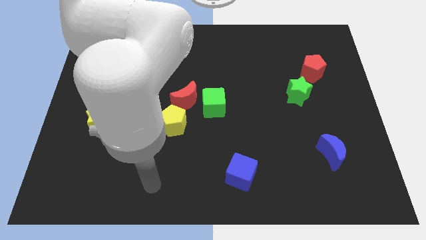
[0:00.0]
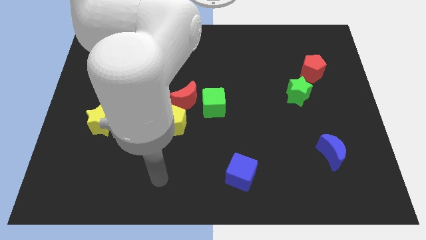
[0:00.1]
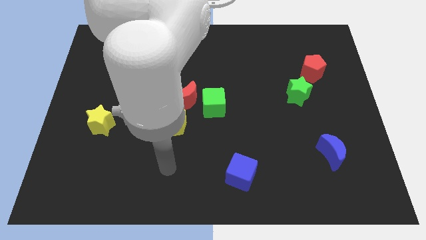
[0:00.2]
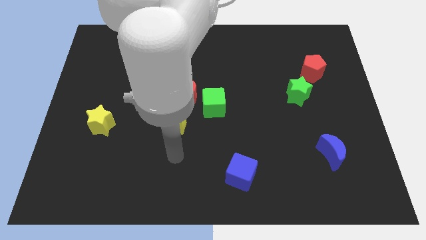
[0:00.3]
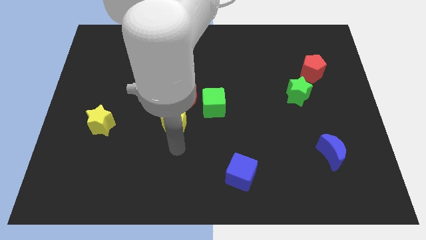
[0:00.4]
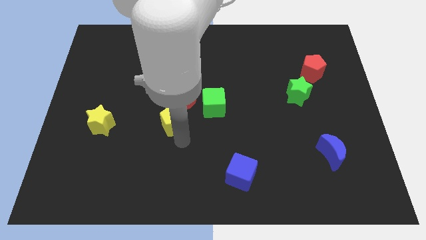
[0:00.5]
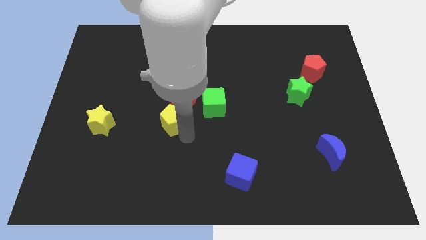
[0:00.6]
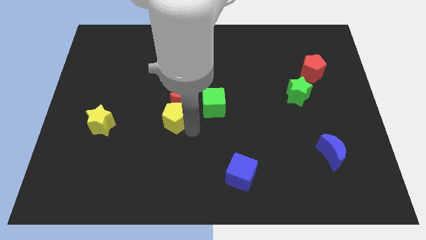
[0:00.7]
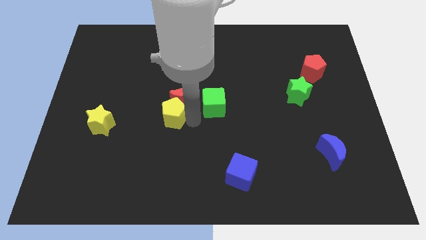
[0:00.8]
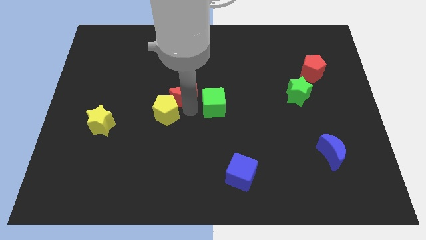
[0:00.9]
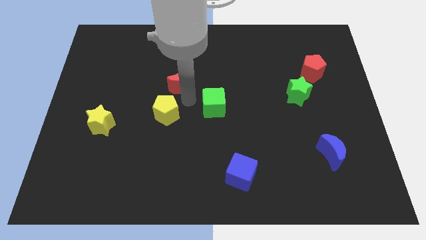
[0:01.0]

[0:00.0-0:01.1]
move the green cube away from the red moon

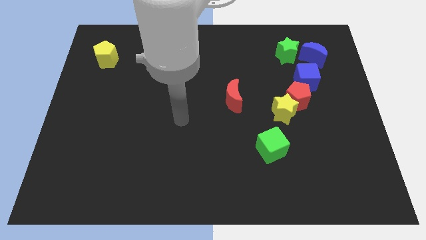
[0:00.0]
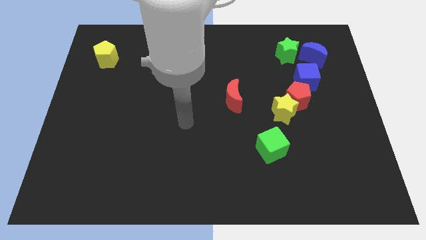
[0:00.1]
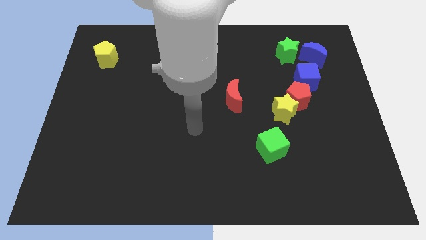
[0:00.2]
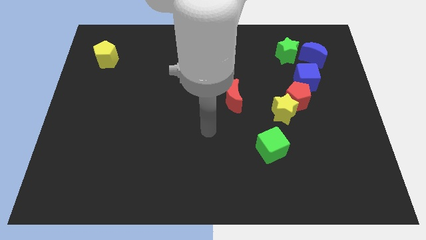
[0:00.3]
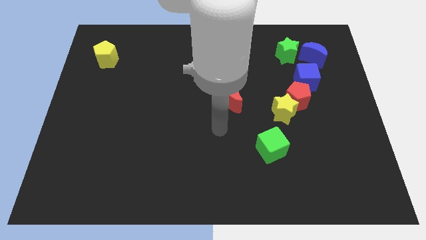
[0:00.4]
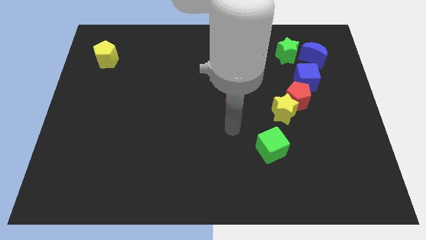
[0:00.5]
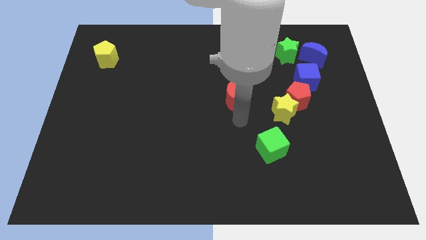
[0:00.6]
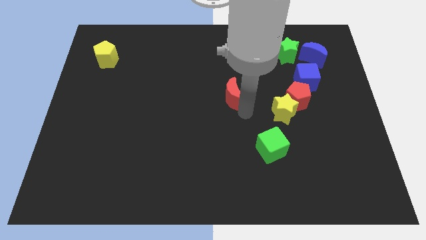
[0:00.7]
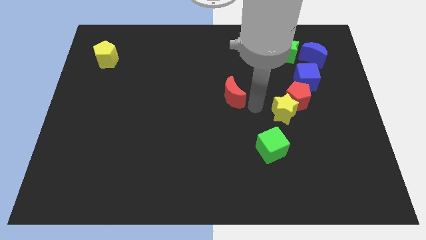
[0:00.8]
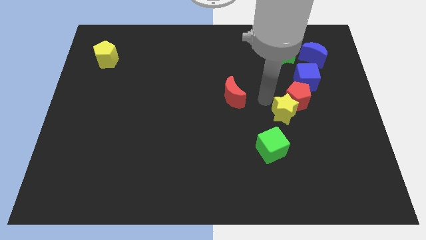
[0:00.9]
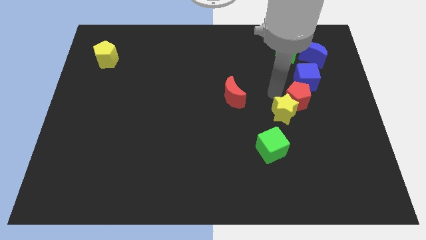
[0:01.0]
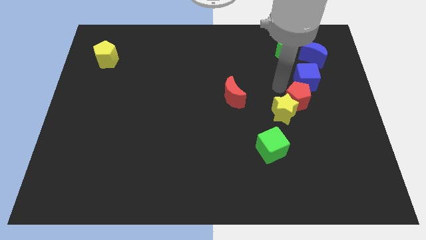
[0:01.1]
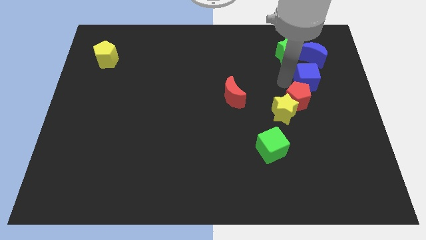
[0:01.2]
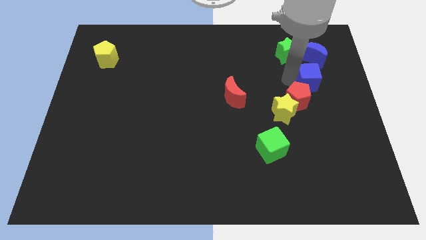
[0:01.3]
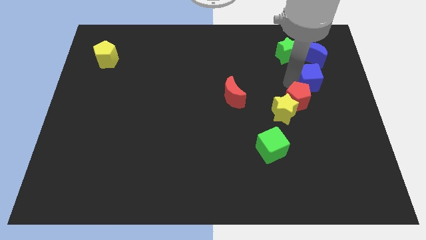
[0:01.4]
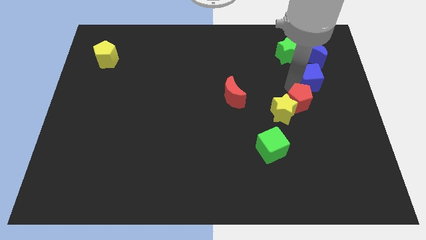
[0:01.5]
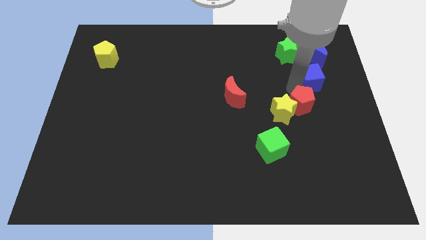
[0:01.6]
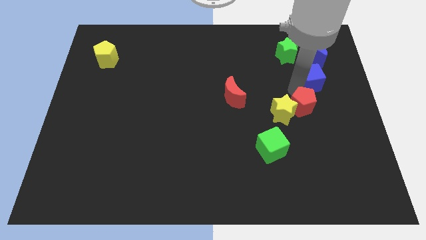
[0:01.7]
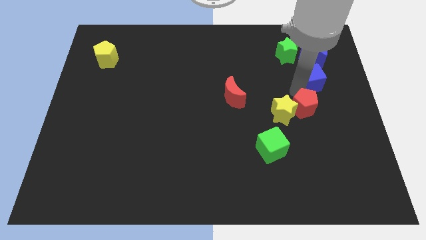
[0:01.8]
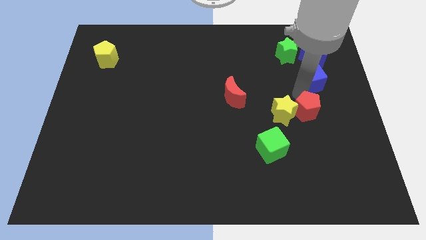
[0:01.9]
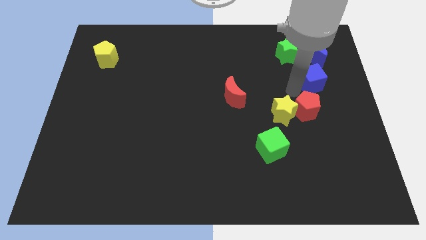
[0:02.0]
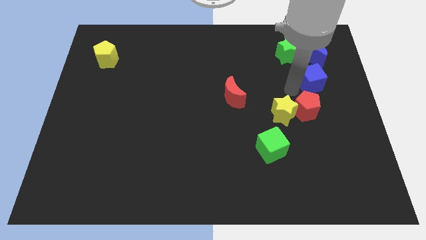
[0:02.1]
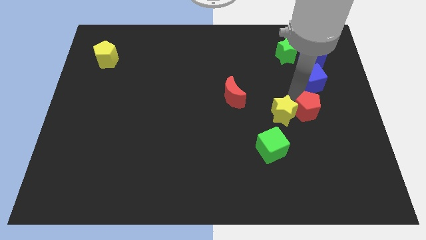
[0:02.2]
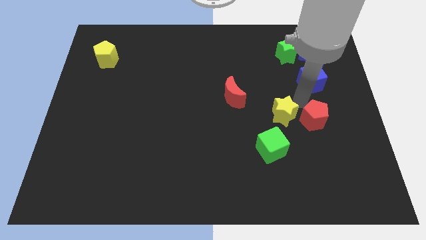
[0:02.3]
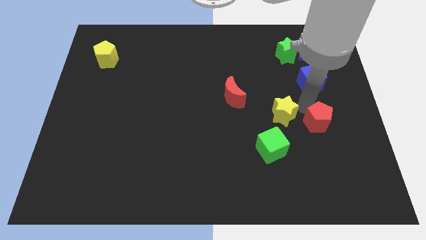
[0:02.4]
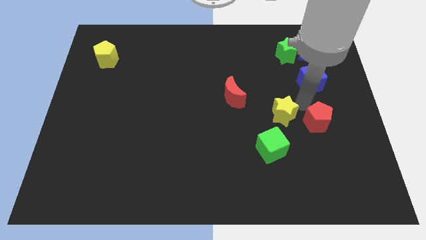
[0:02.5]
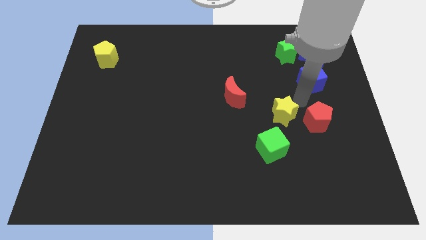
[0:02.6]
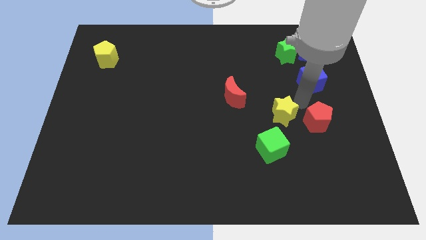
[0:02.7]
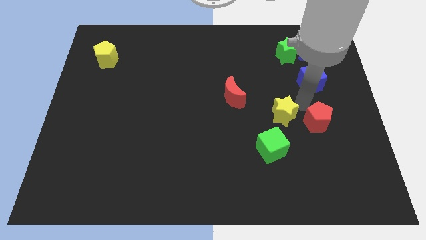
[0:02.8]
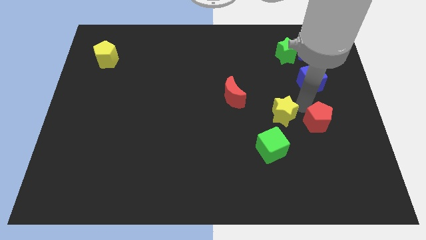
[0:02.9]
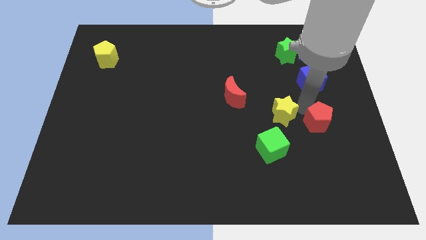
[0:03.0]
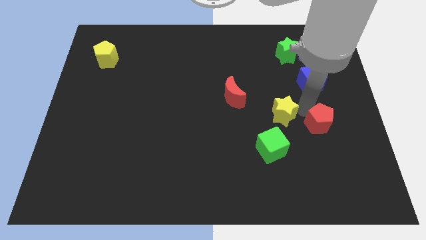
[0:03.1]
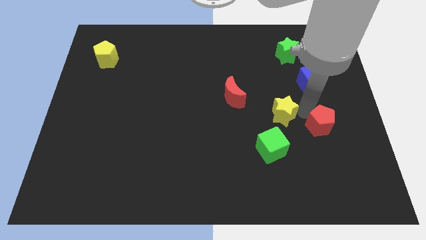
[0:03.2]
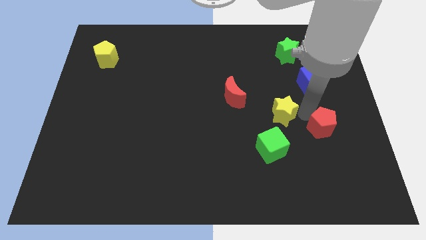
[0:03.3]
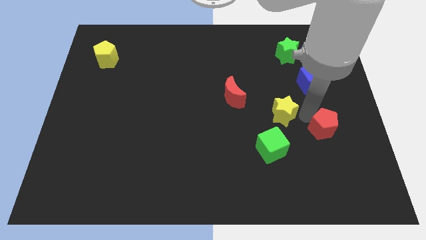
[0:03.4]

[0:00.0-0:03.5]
pull the red pentagon apart from the yellow star and blue cube

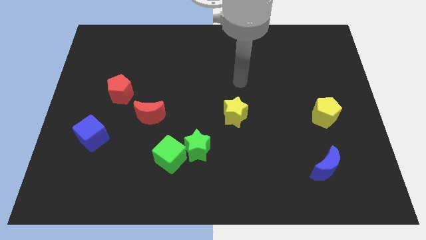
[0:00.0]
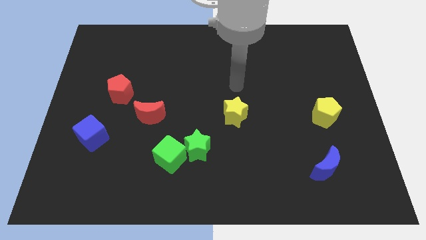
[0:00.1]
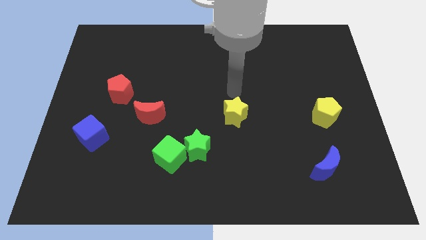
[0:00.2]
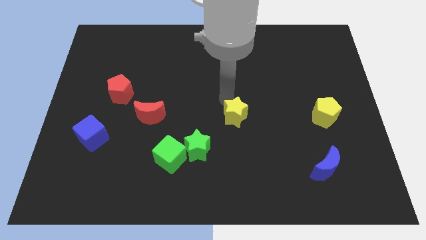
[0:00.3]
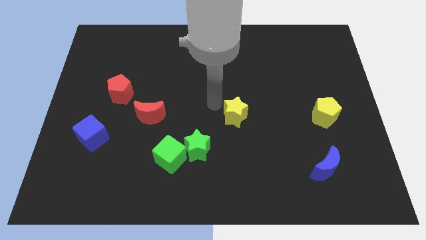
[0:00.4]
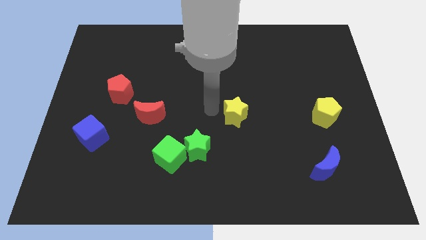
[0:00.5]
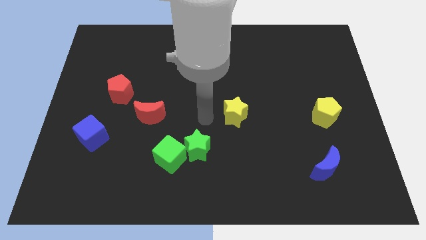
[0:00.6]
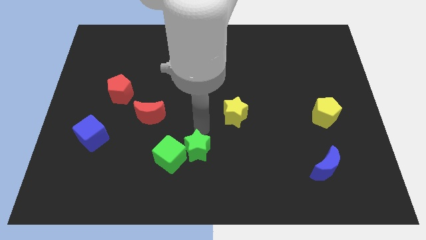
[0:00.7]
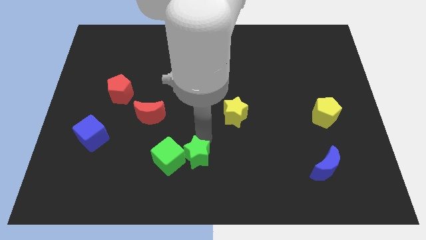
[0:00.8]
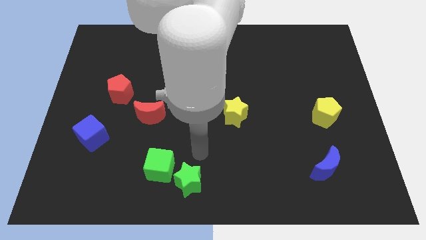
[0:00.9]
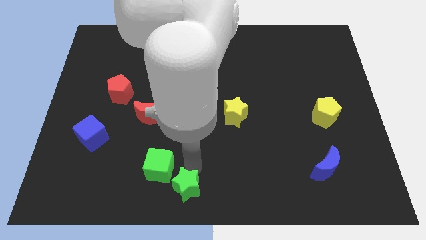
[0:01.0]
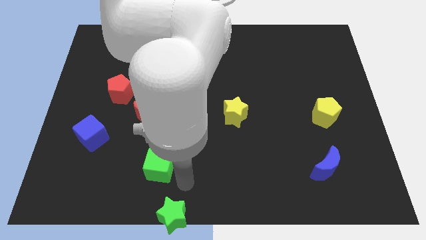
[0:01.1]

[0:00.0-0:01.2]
separate the green cube from the green star

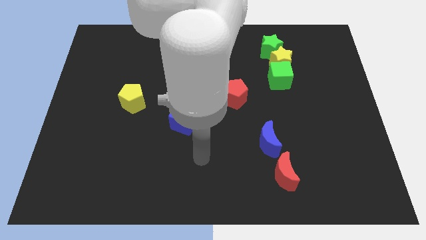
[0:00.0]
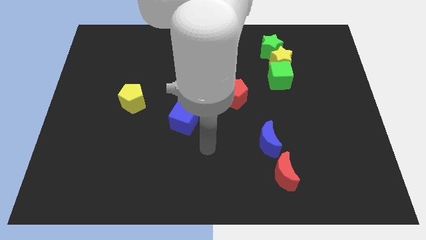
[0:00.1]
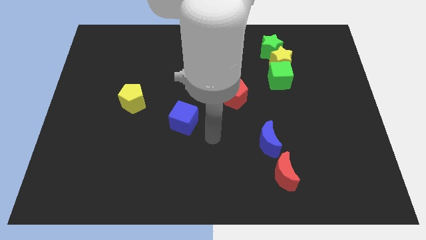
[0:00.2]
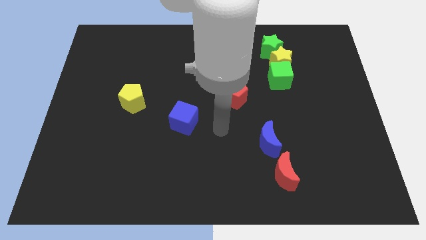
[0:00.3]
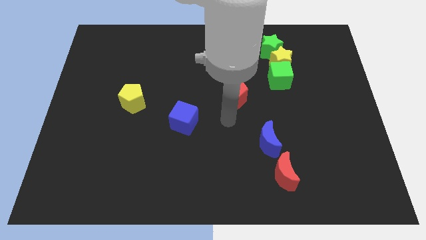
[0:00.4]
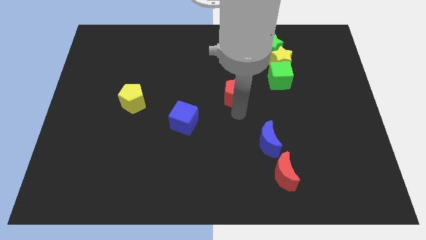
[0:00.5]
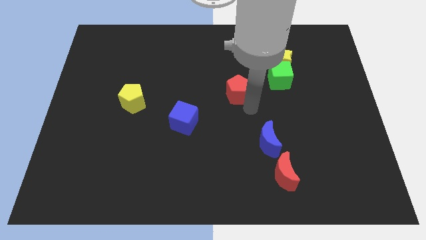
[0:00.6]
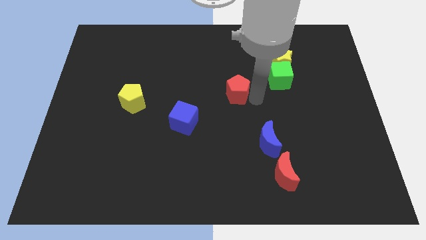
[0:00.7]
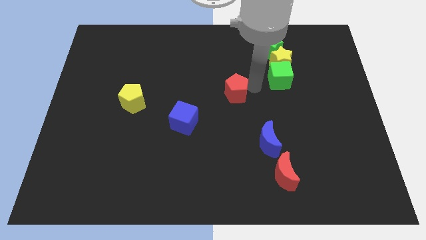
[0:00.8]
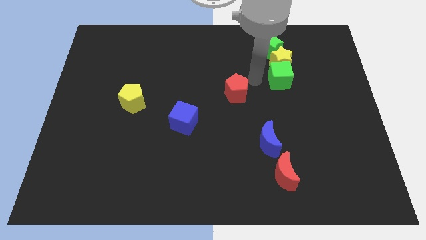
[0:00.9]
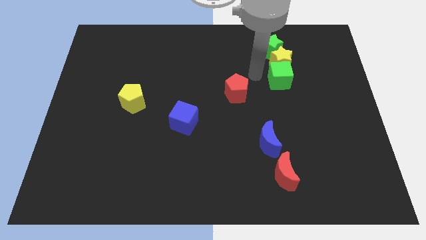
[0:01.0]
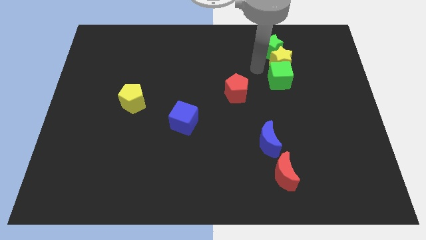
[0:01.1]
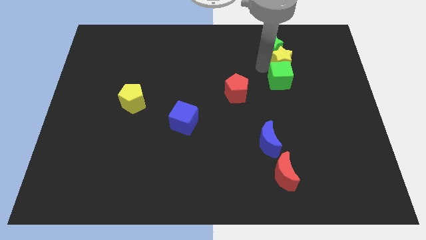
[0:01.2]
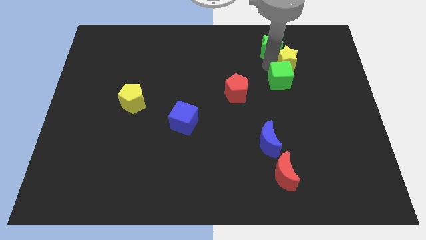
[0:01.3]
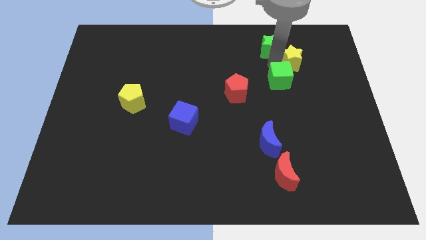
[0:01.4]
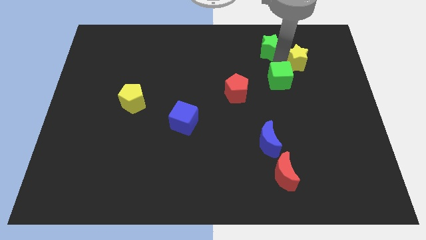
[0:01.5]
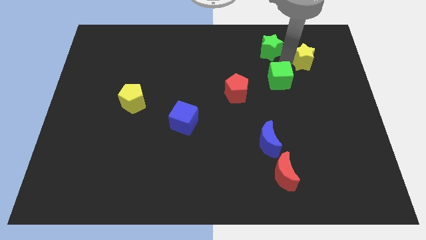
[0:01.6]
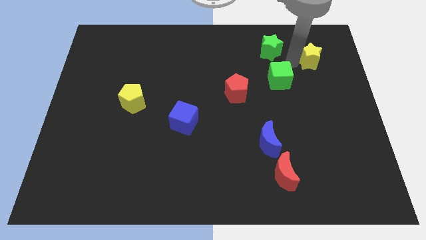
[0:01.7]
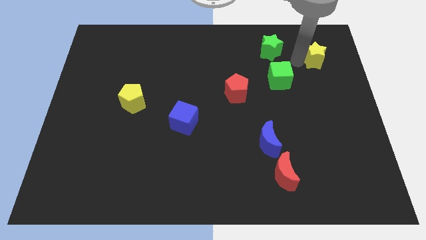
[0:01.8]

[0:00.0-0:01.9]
pull the yellow star apart from the green star and green cube

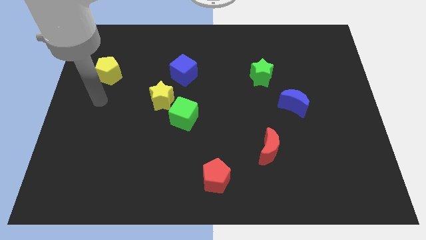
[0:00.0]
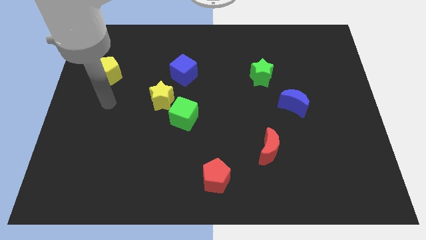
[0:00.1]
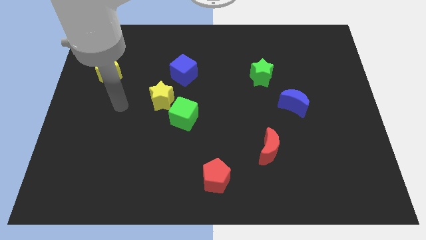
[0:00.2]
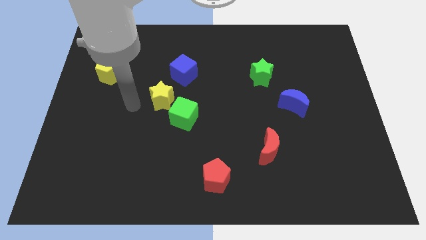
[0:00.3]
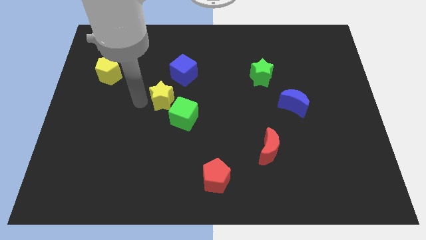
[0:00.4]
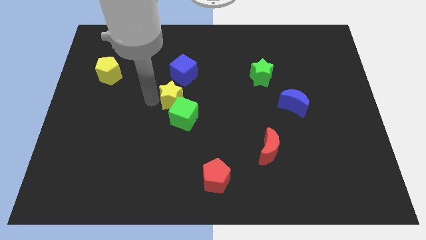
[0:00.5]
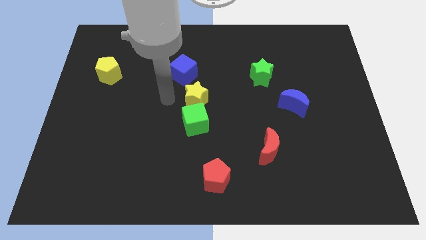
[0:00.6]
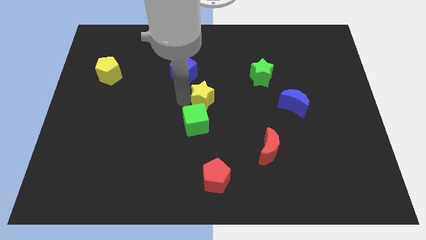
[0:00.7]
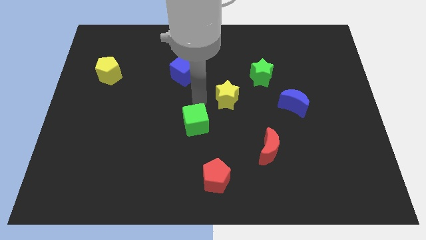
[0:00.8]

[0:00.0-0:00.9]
pull the green cube apart from the yellow star

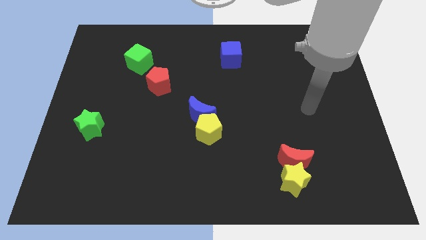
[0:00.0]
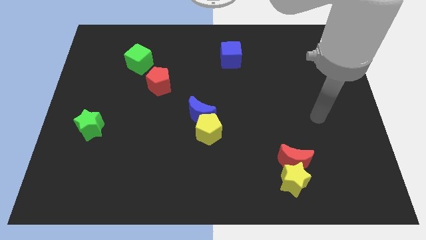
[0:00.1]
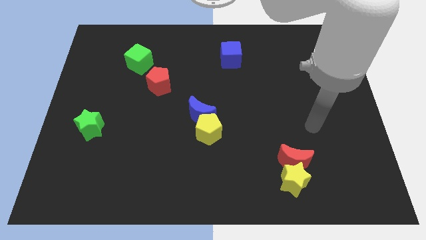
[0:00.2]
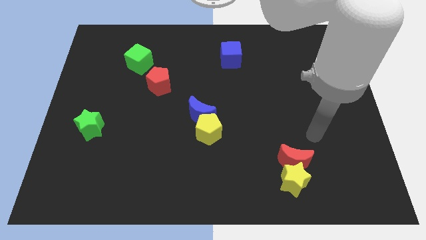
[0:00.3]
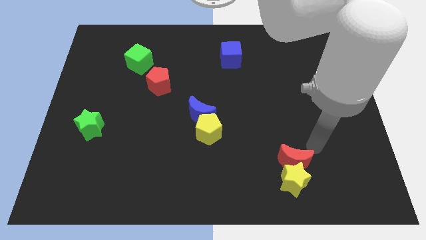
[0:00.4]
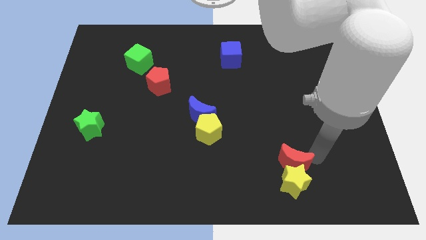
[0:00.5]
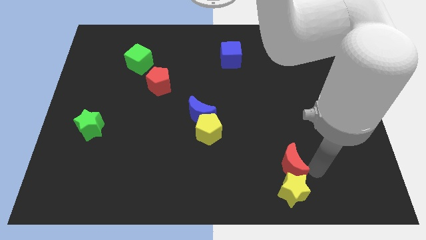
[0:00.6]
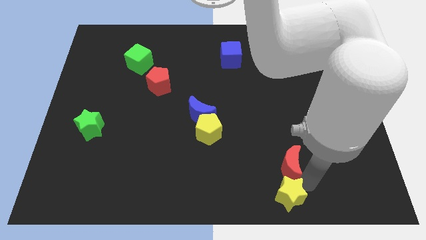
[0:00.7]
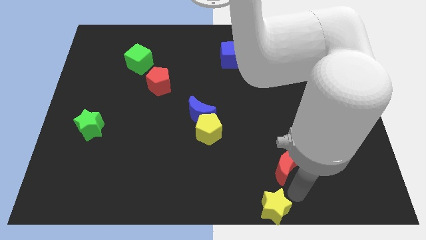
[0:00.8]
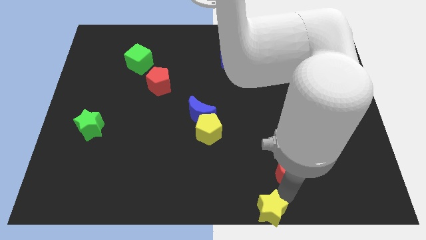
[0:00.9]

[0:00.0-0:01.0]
separate the red moon from the yellow star
